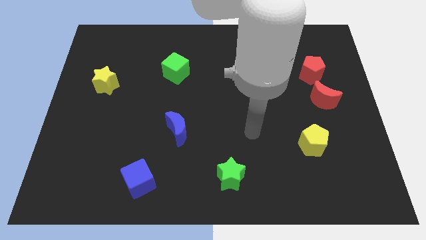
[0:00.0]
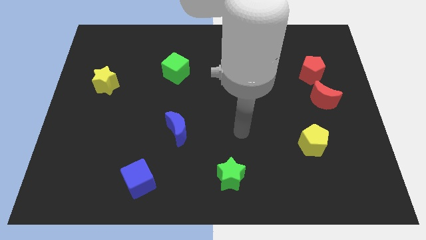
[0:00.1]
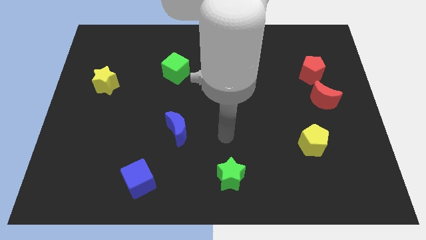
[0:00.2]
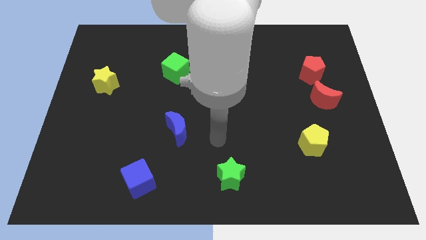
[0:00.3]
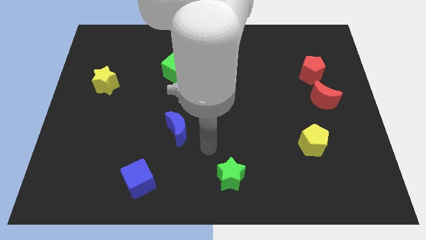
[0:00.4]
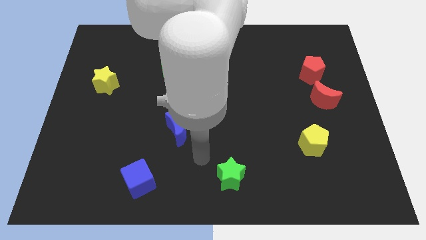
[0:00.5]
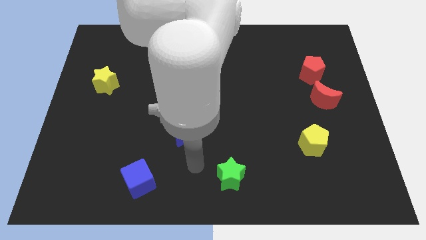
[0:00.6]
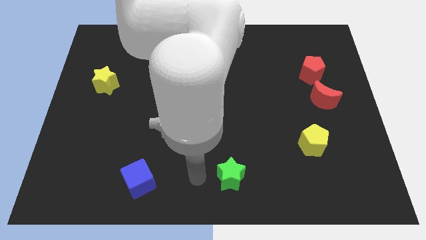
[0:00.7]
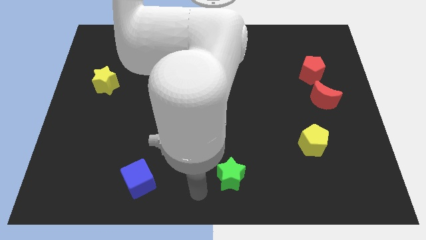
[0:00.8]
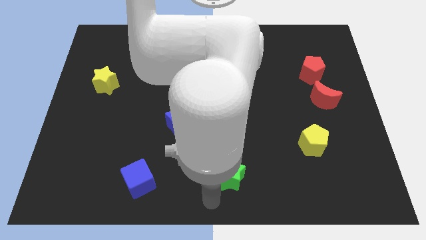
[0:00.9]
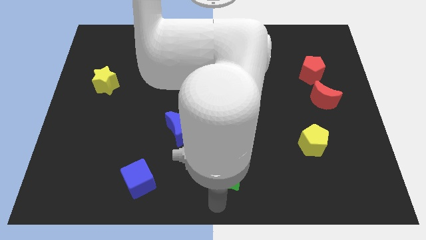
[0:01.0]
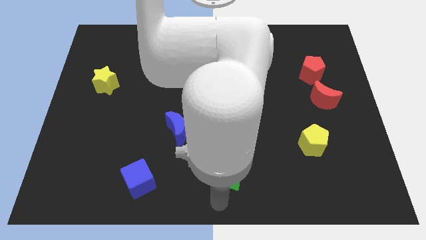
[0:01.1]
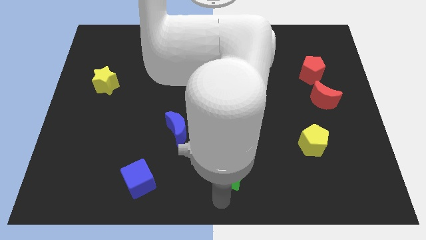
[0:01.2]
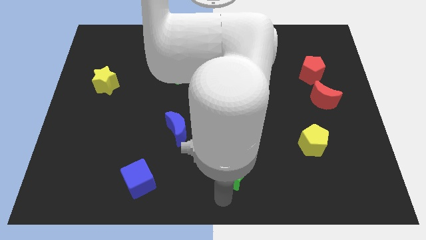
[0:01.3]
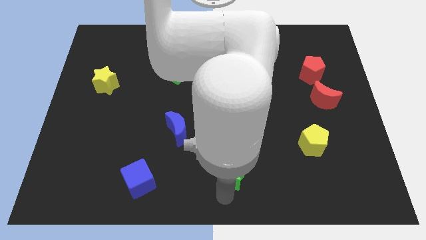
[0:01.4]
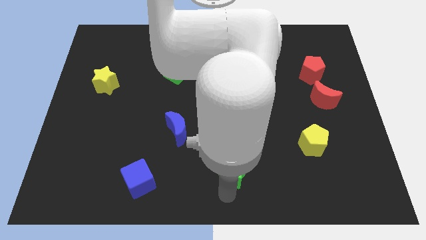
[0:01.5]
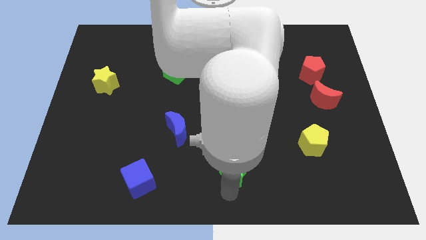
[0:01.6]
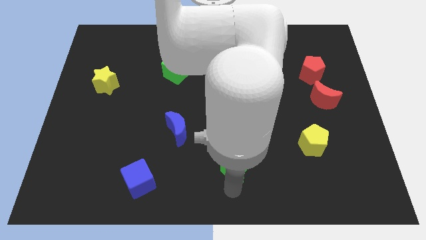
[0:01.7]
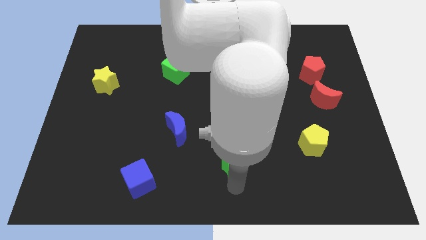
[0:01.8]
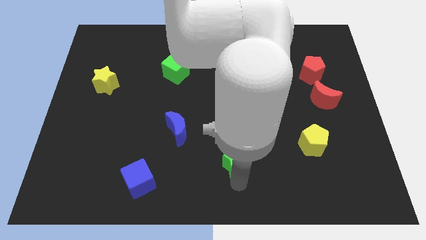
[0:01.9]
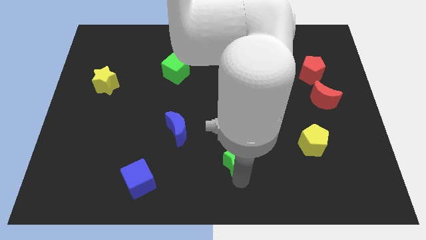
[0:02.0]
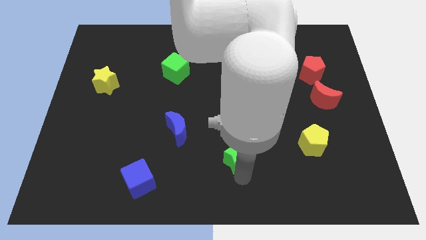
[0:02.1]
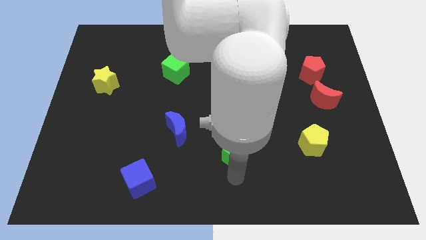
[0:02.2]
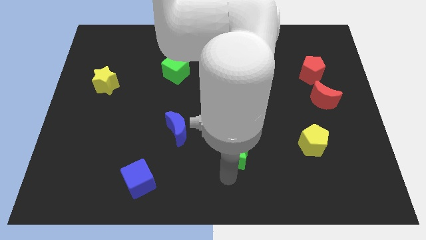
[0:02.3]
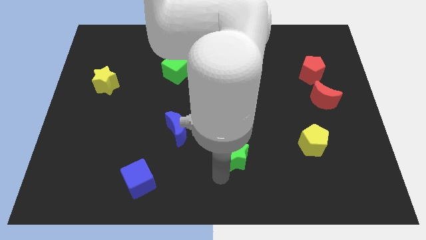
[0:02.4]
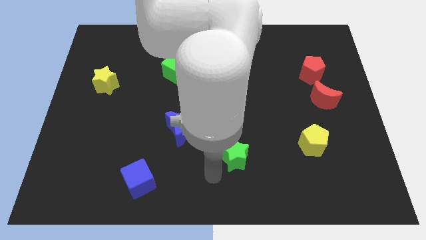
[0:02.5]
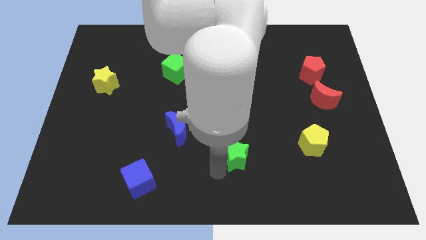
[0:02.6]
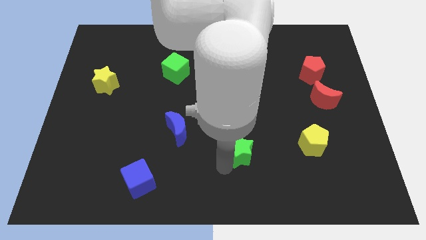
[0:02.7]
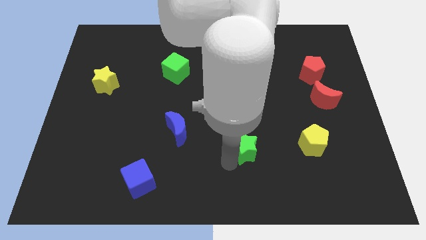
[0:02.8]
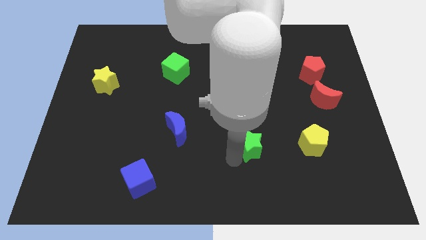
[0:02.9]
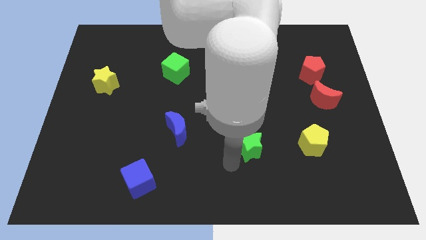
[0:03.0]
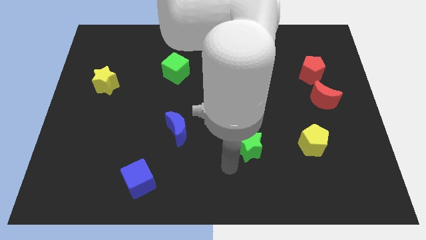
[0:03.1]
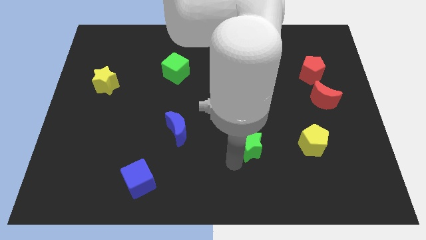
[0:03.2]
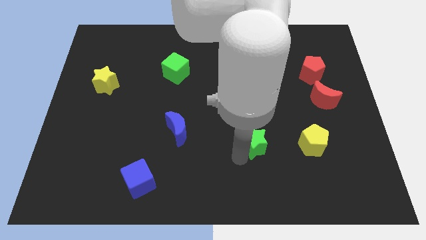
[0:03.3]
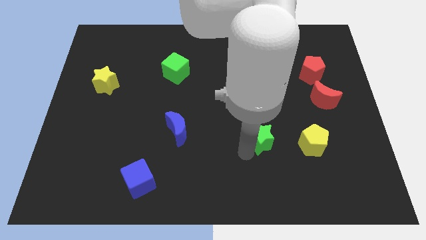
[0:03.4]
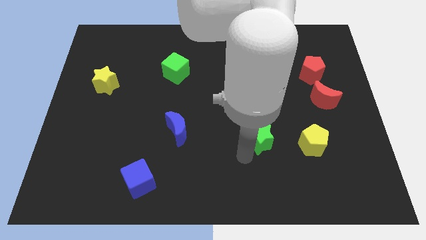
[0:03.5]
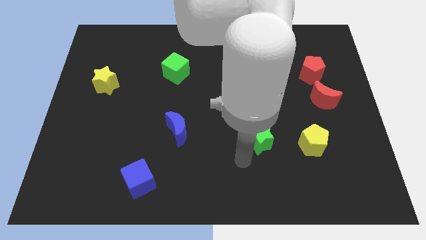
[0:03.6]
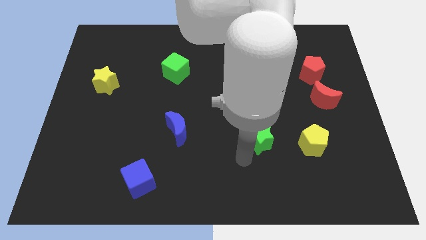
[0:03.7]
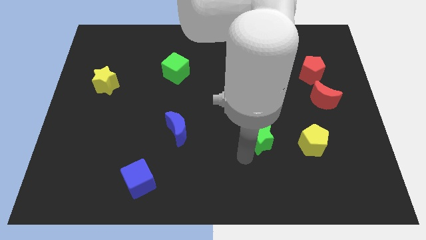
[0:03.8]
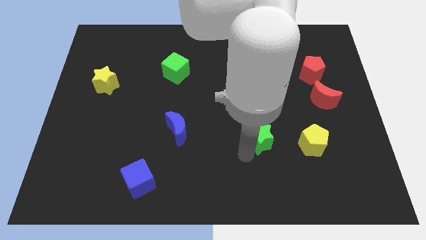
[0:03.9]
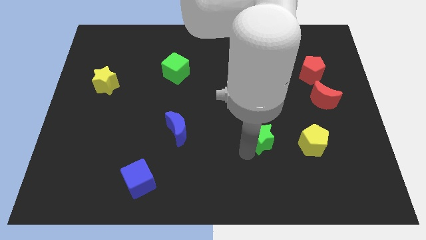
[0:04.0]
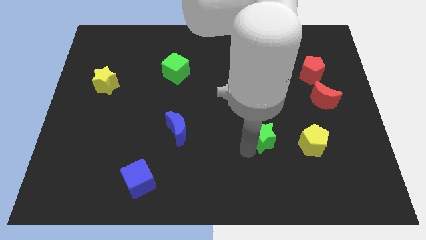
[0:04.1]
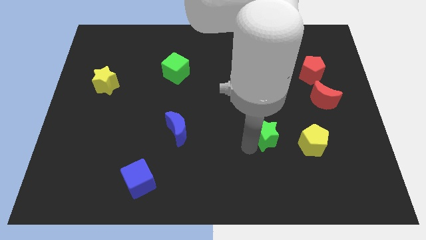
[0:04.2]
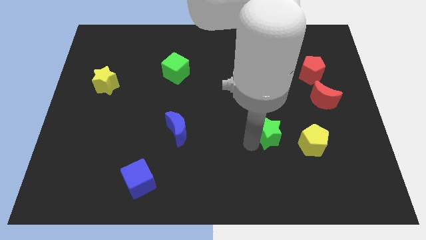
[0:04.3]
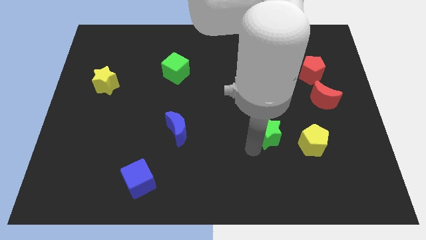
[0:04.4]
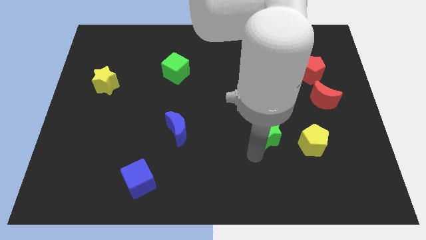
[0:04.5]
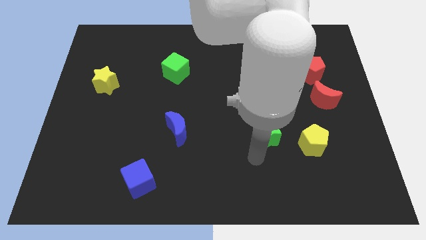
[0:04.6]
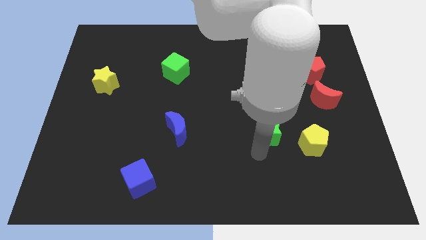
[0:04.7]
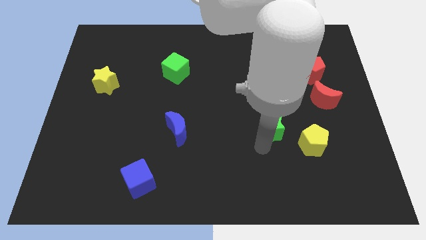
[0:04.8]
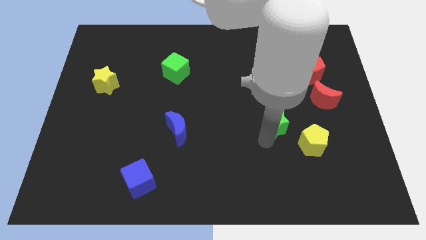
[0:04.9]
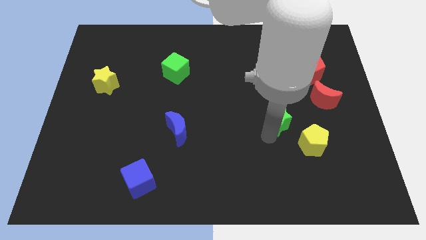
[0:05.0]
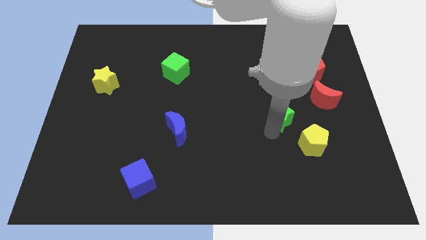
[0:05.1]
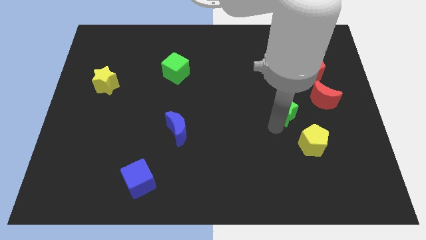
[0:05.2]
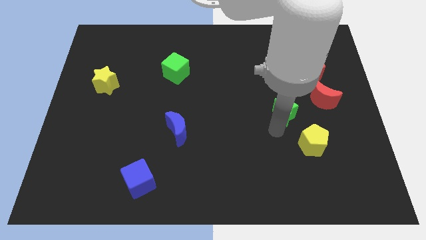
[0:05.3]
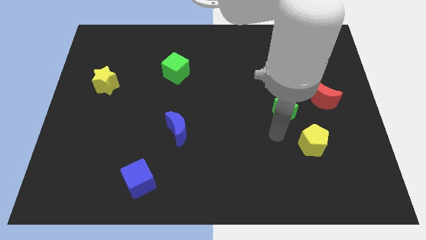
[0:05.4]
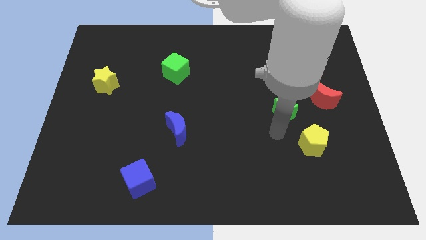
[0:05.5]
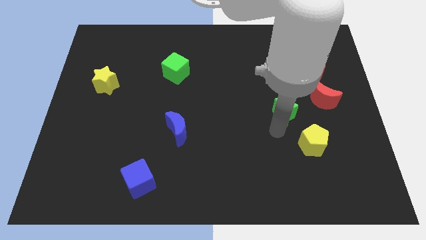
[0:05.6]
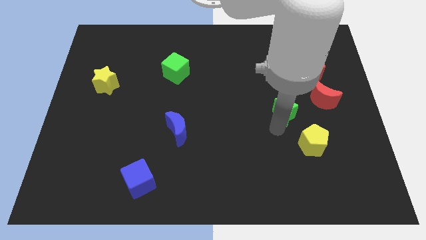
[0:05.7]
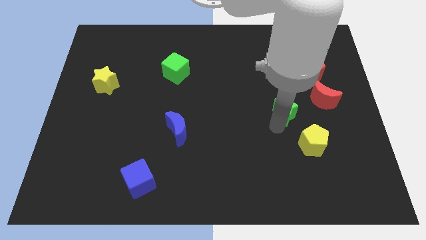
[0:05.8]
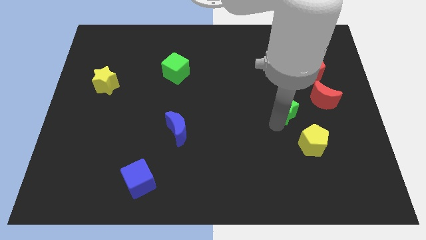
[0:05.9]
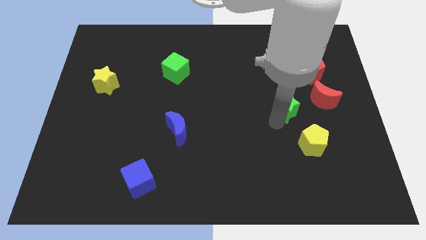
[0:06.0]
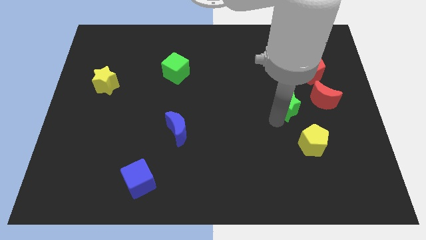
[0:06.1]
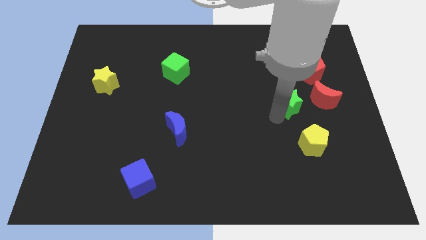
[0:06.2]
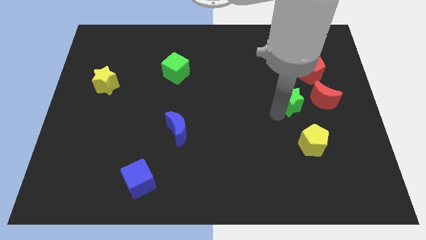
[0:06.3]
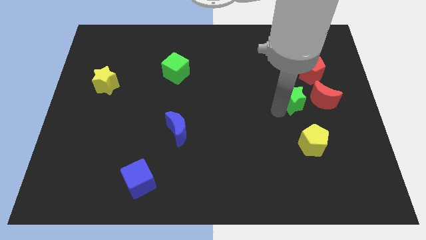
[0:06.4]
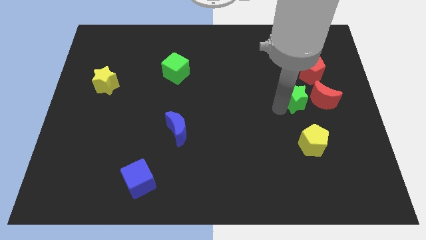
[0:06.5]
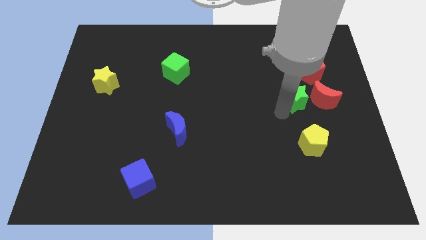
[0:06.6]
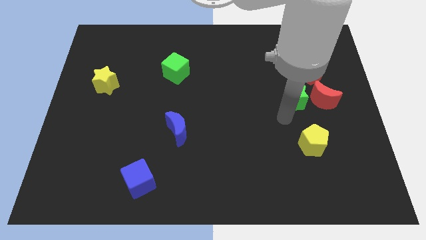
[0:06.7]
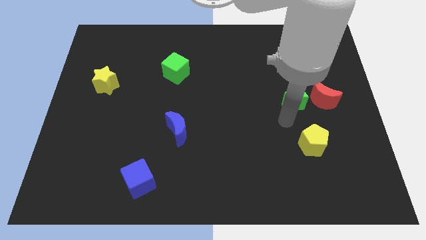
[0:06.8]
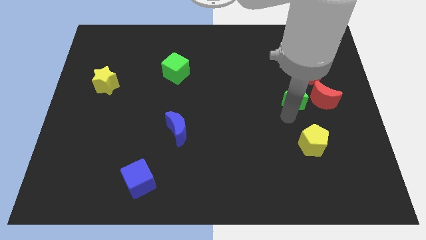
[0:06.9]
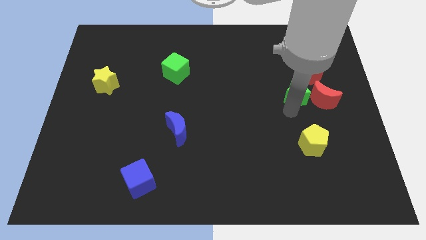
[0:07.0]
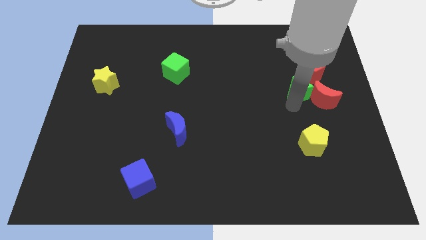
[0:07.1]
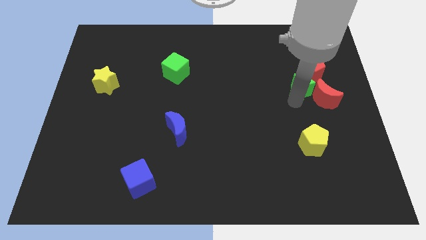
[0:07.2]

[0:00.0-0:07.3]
move the green star to the red pentagon
